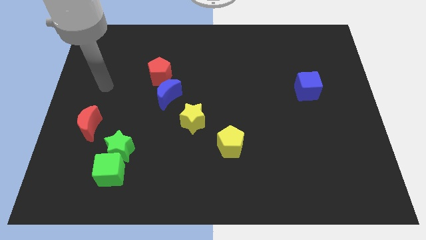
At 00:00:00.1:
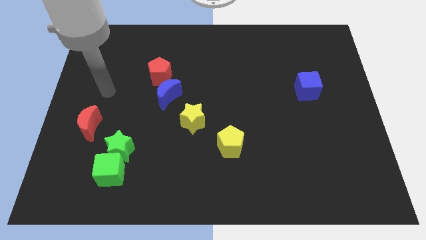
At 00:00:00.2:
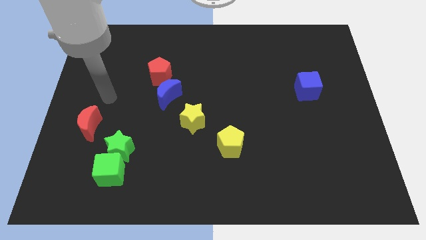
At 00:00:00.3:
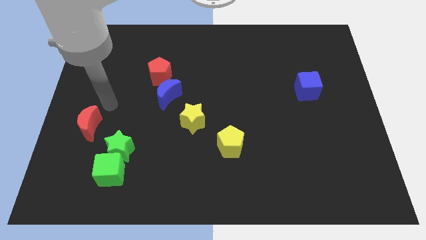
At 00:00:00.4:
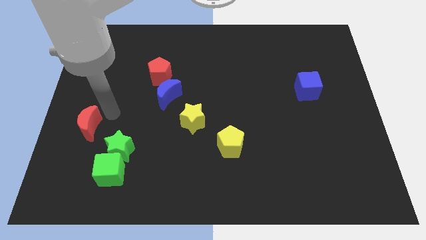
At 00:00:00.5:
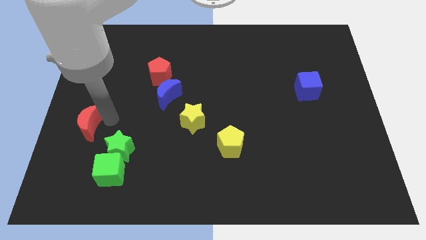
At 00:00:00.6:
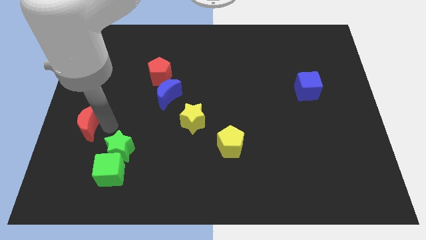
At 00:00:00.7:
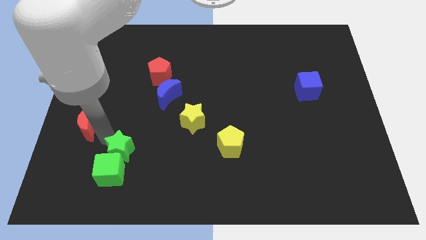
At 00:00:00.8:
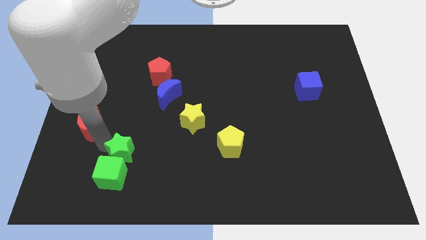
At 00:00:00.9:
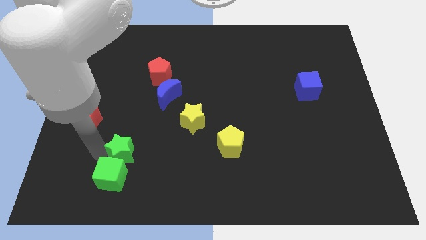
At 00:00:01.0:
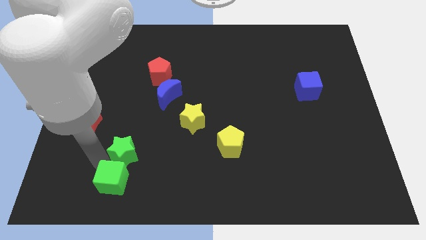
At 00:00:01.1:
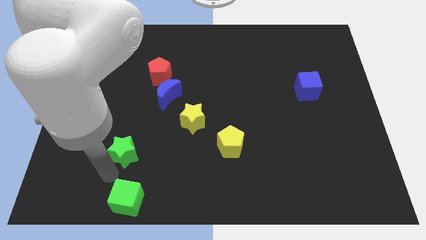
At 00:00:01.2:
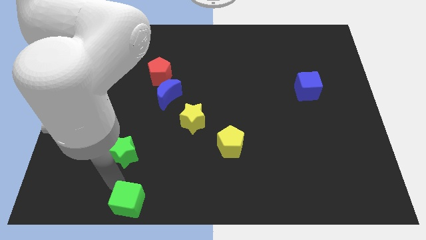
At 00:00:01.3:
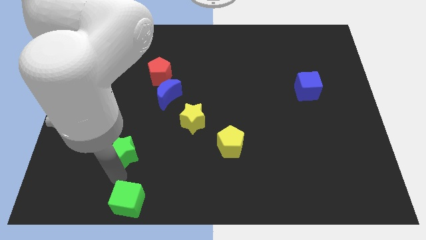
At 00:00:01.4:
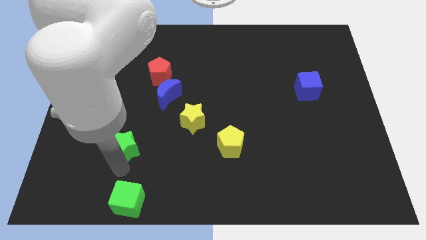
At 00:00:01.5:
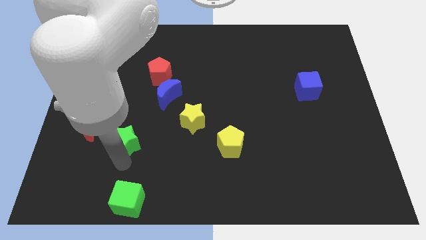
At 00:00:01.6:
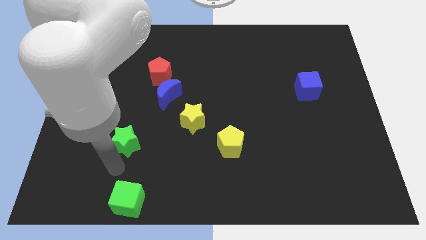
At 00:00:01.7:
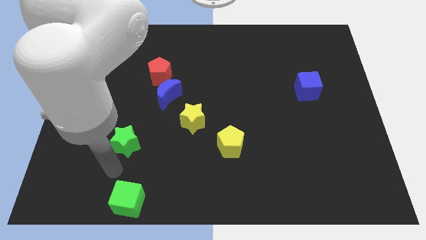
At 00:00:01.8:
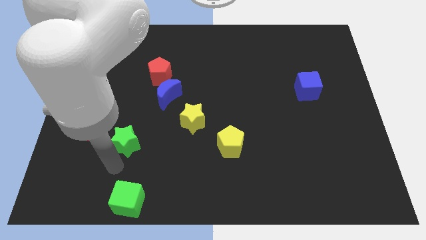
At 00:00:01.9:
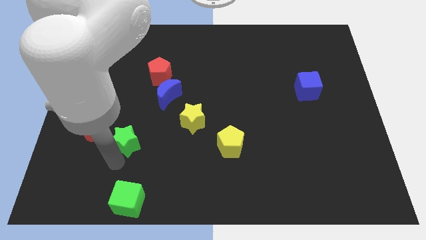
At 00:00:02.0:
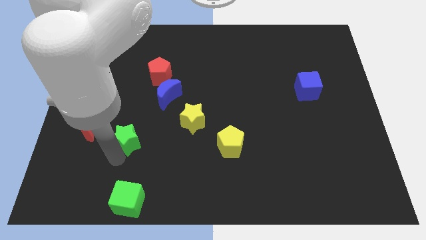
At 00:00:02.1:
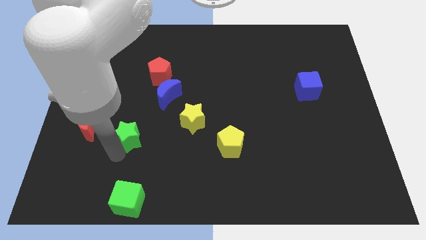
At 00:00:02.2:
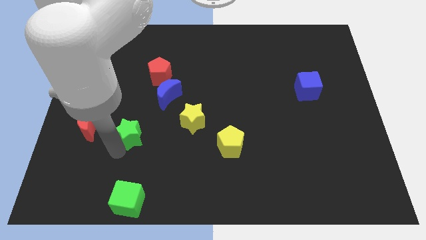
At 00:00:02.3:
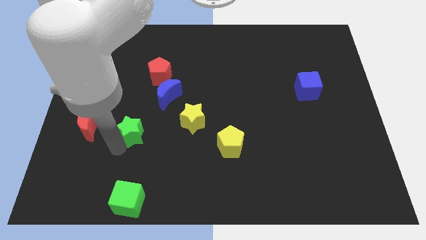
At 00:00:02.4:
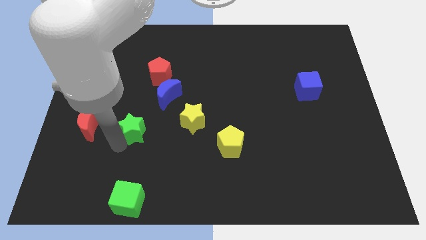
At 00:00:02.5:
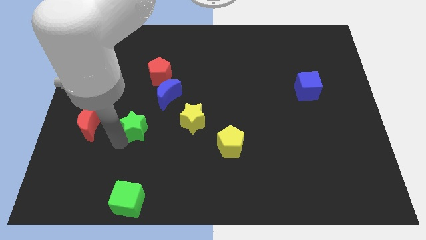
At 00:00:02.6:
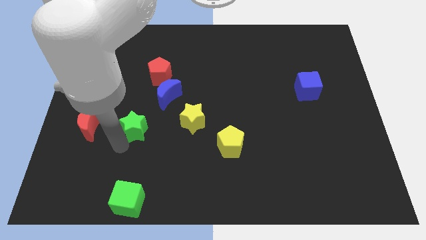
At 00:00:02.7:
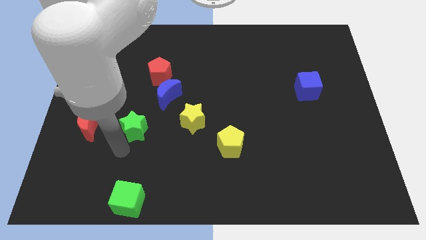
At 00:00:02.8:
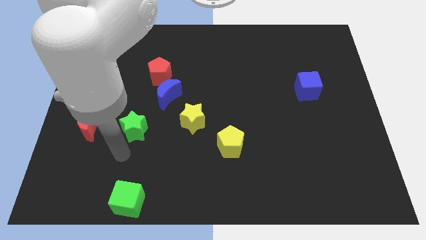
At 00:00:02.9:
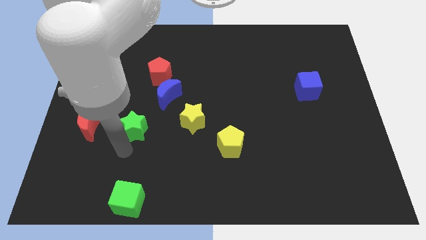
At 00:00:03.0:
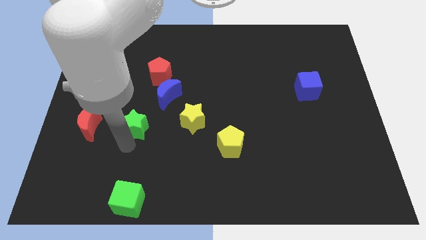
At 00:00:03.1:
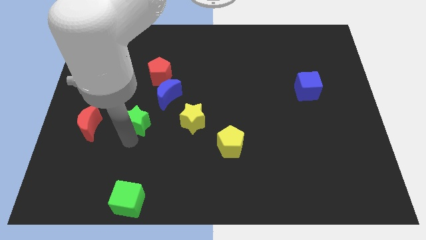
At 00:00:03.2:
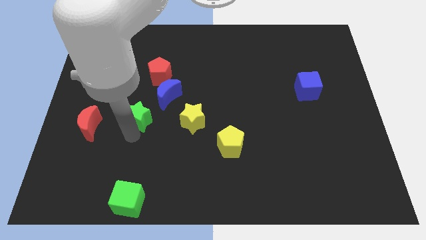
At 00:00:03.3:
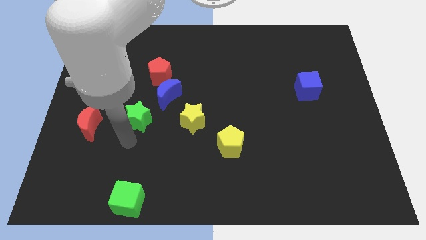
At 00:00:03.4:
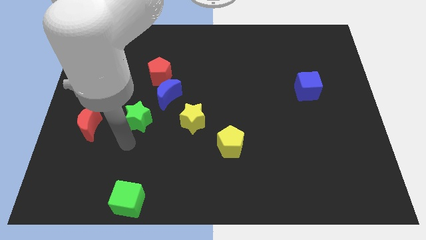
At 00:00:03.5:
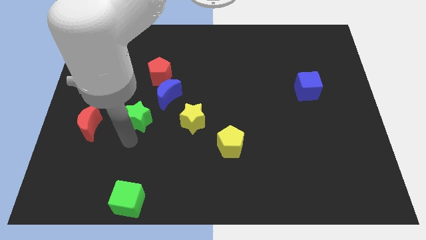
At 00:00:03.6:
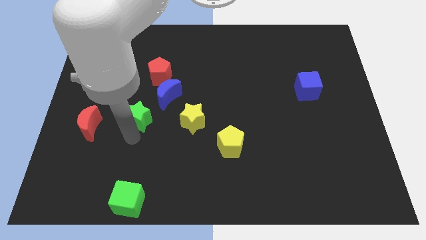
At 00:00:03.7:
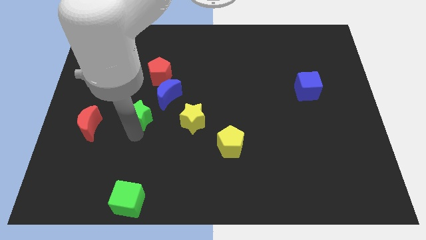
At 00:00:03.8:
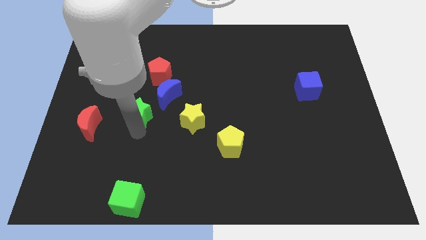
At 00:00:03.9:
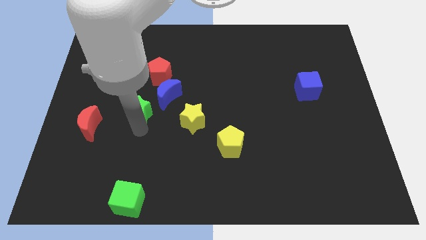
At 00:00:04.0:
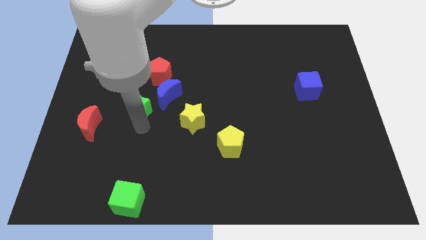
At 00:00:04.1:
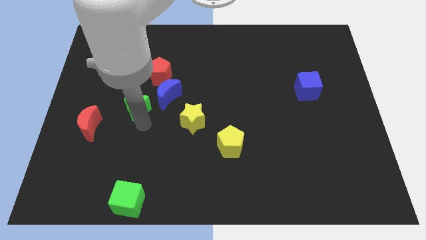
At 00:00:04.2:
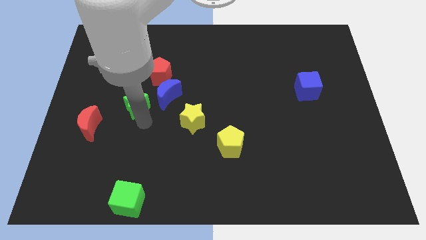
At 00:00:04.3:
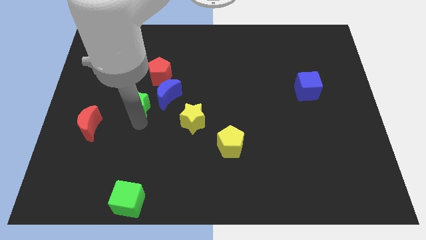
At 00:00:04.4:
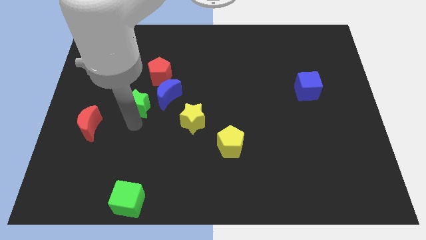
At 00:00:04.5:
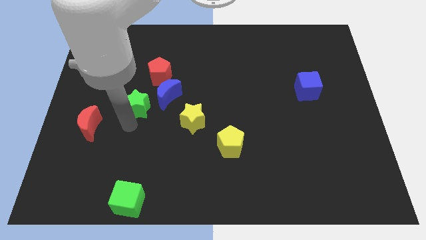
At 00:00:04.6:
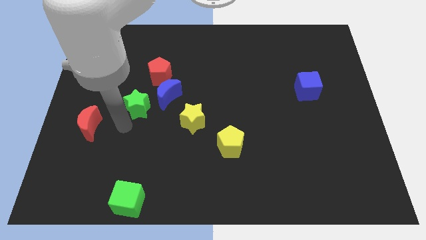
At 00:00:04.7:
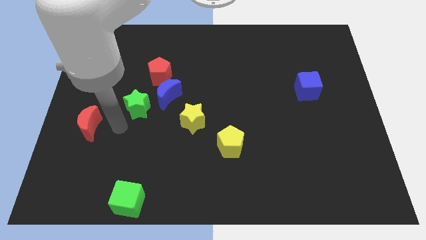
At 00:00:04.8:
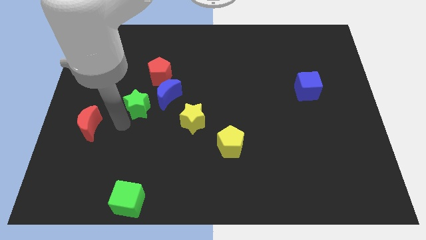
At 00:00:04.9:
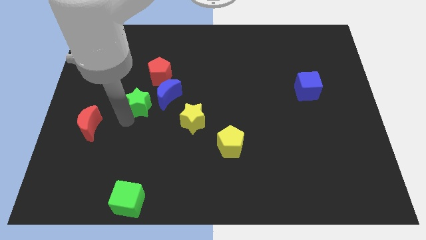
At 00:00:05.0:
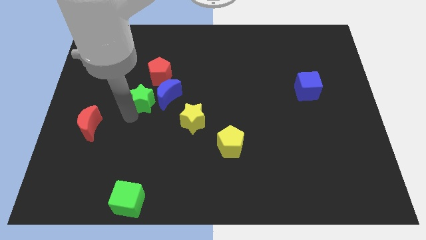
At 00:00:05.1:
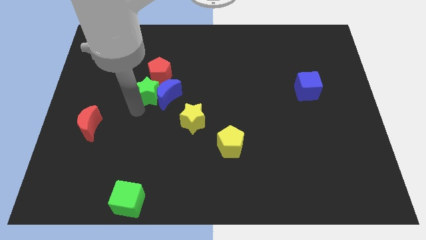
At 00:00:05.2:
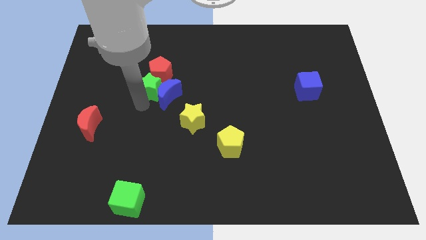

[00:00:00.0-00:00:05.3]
put the green star towards the red pentagon

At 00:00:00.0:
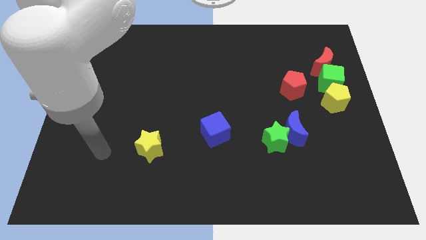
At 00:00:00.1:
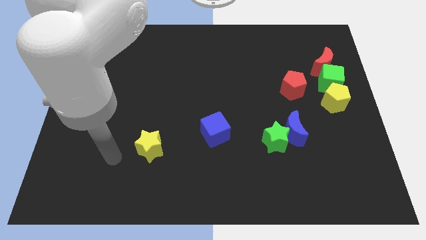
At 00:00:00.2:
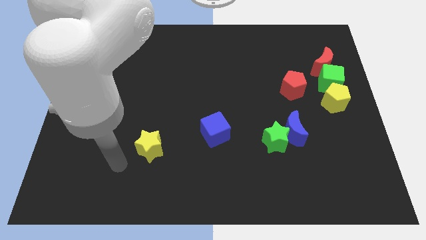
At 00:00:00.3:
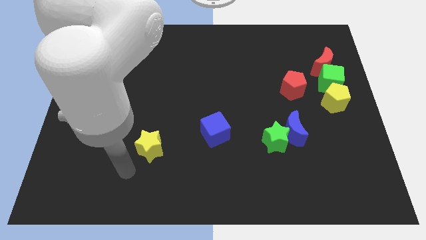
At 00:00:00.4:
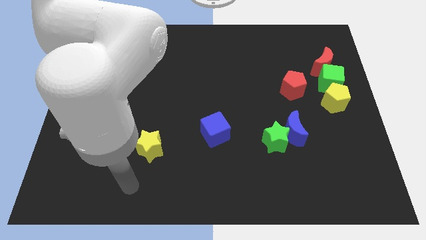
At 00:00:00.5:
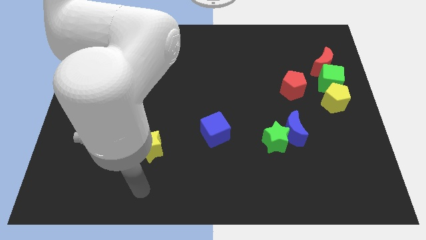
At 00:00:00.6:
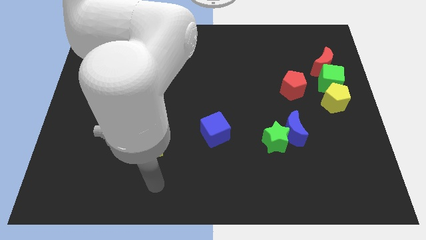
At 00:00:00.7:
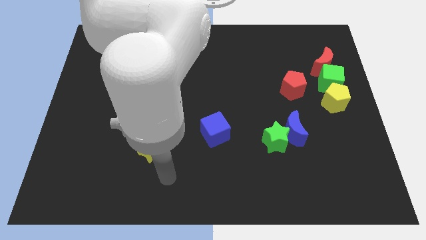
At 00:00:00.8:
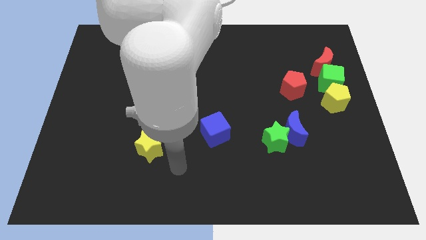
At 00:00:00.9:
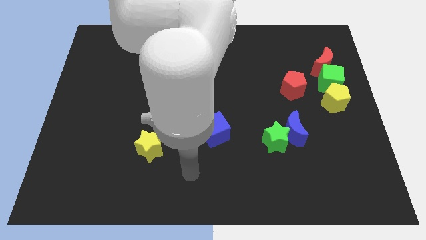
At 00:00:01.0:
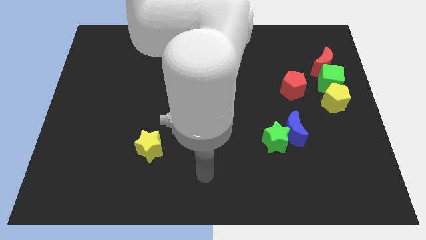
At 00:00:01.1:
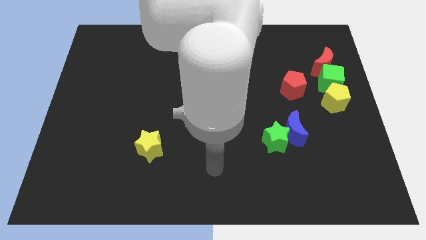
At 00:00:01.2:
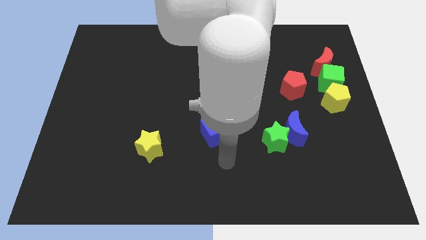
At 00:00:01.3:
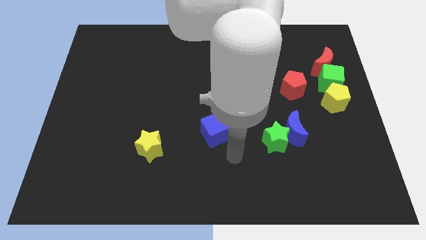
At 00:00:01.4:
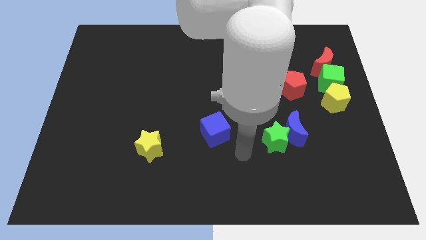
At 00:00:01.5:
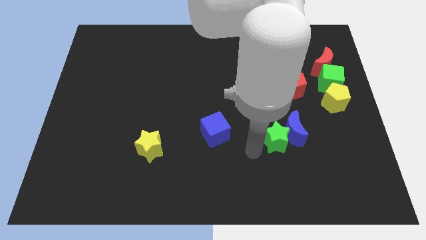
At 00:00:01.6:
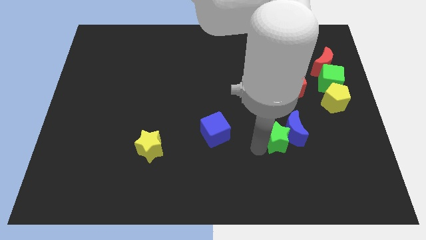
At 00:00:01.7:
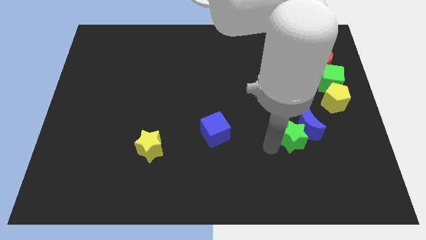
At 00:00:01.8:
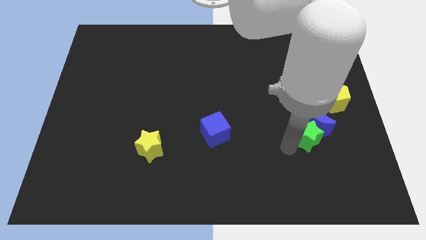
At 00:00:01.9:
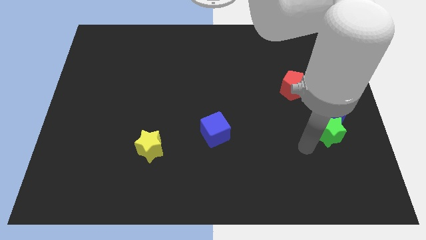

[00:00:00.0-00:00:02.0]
push the blue moon to the yellow pentagon
